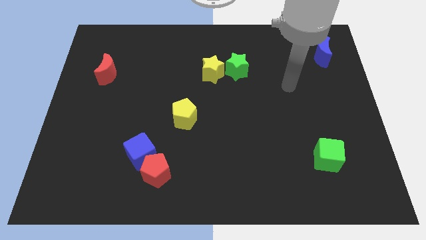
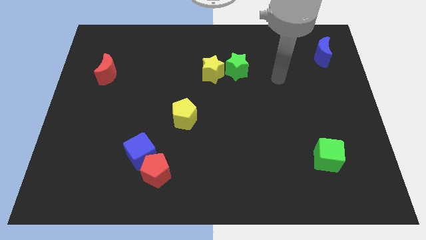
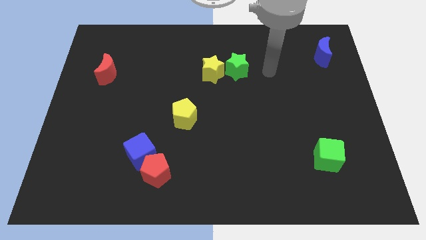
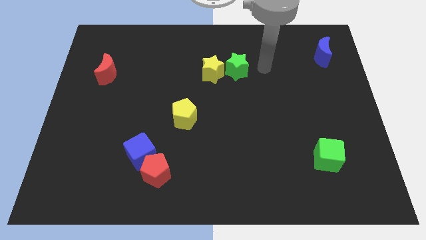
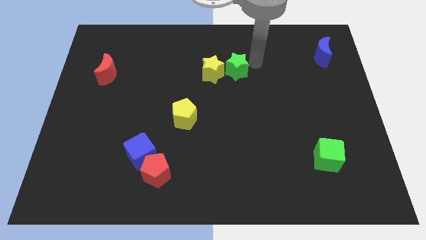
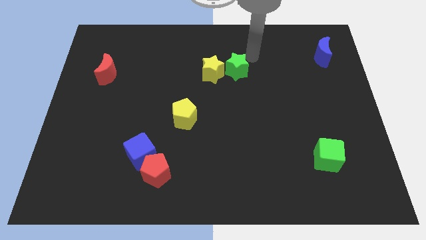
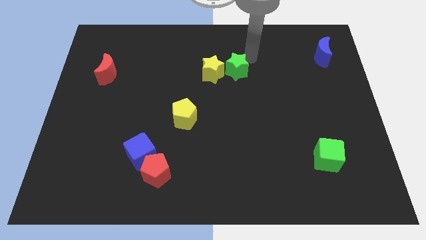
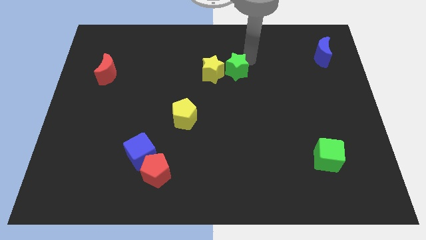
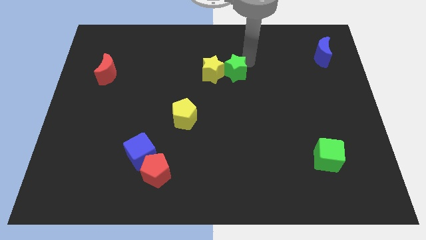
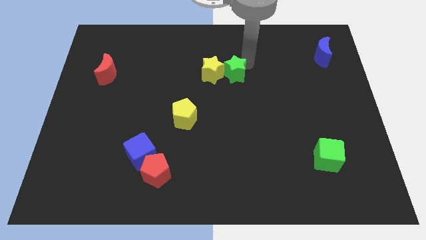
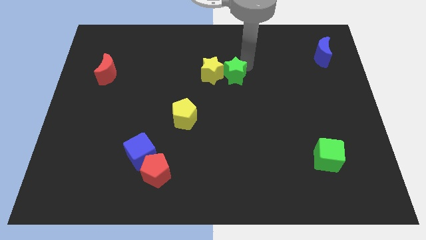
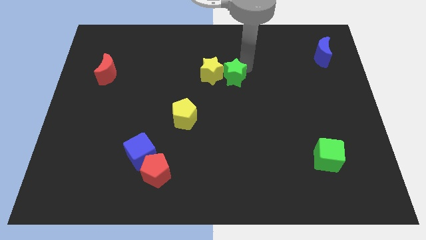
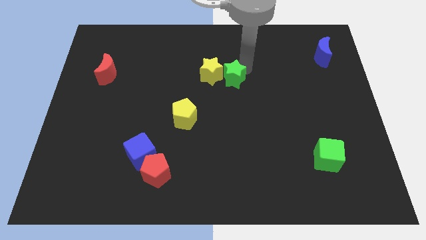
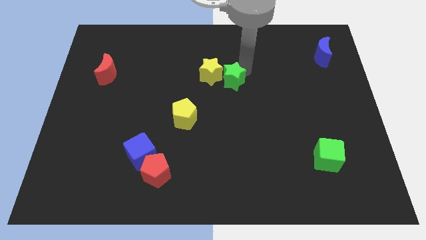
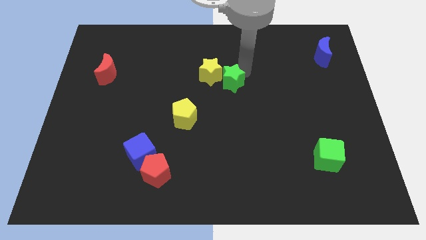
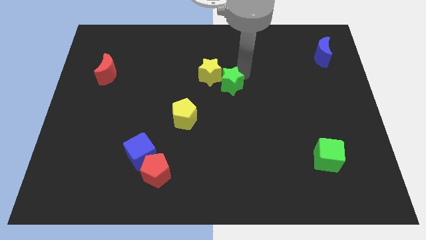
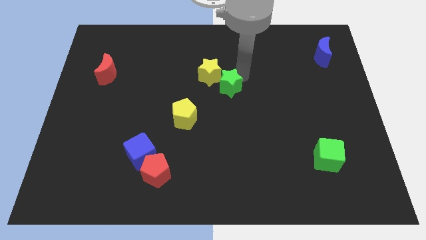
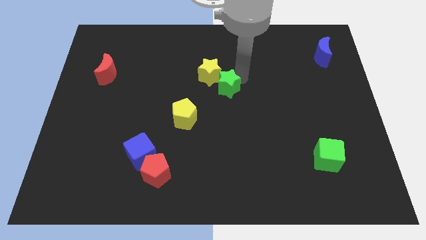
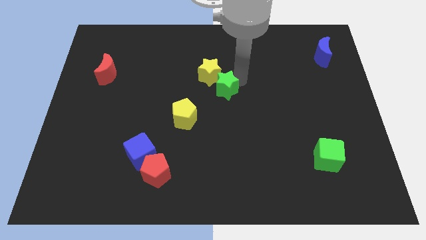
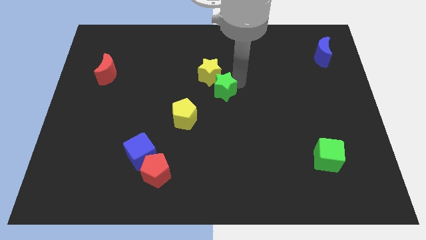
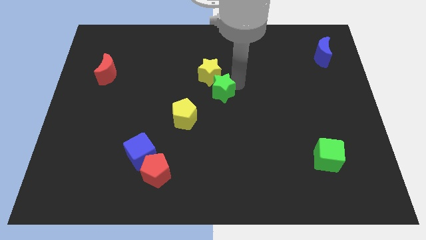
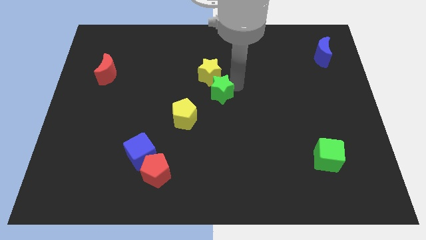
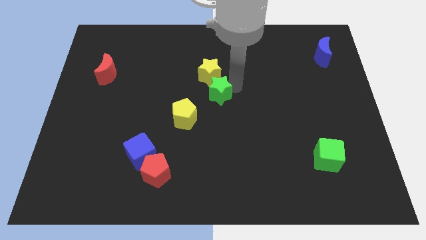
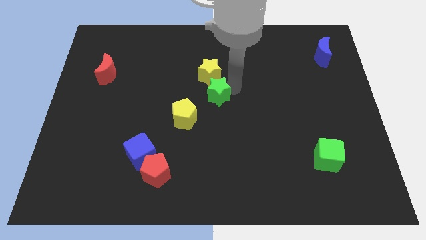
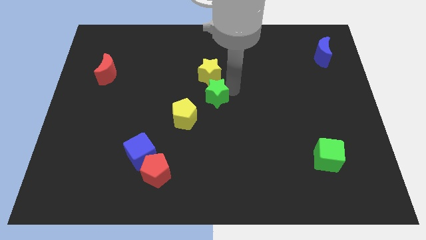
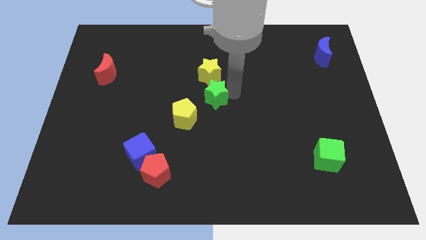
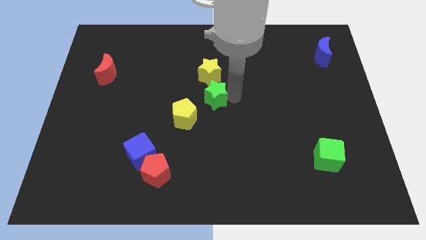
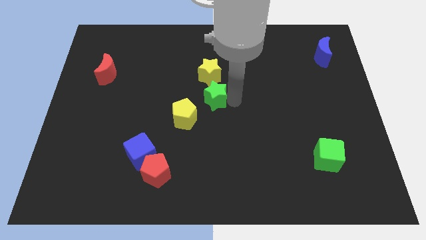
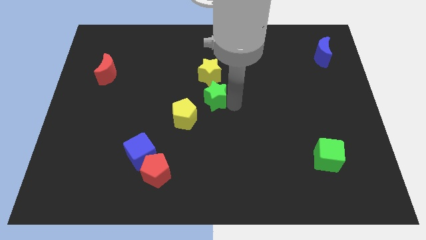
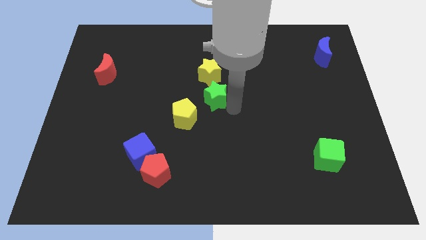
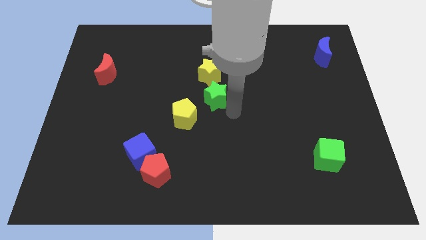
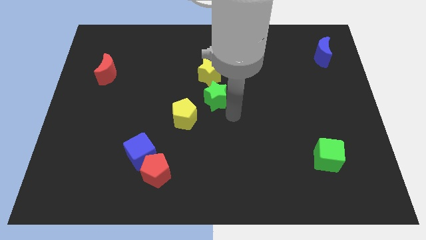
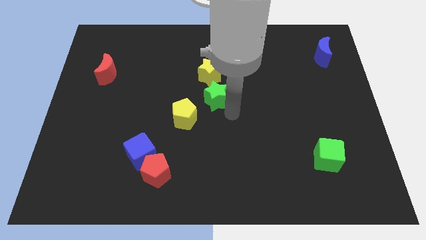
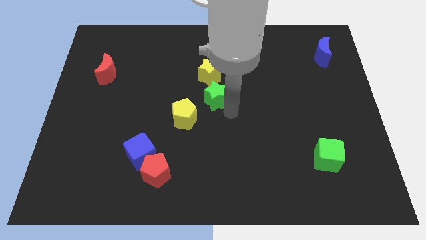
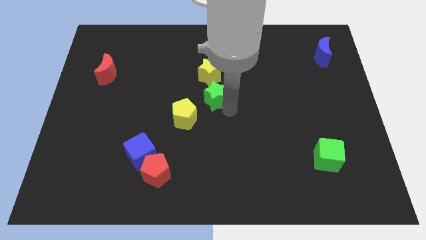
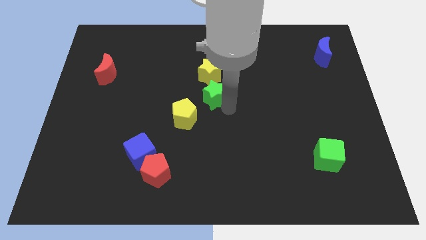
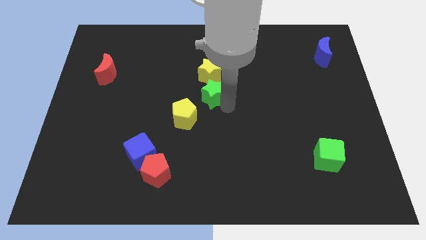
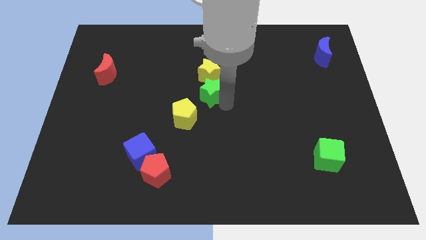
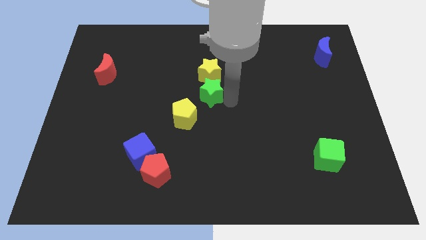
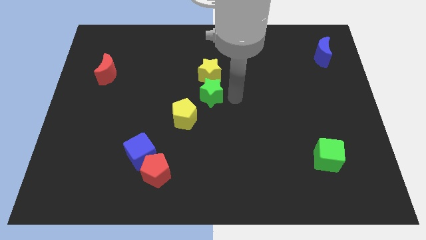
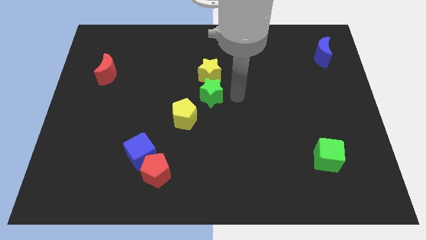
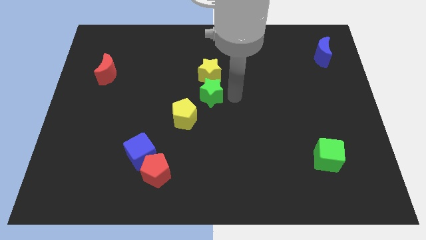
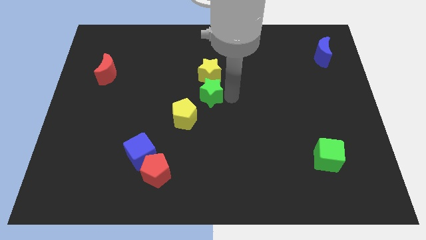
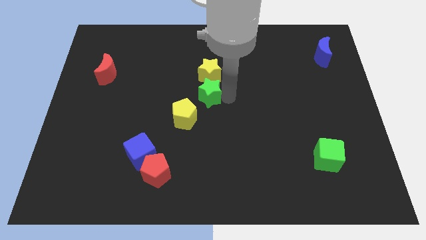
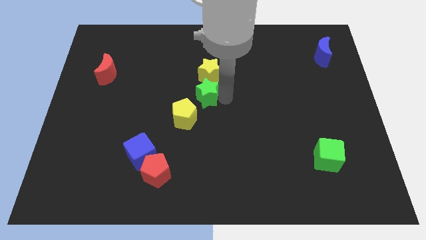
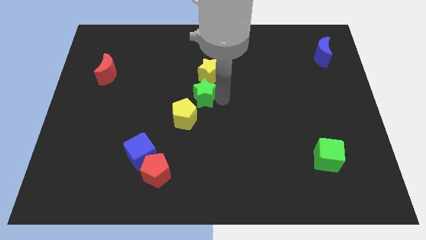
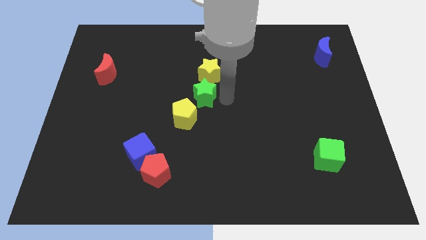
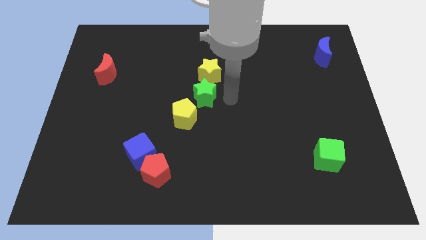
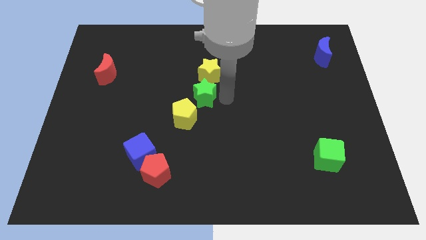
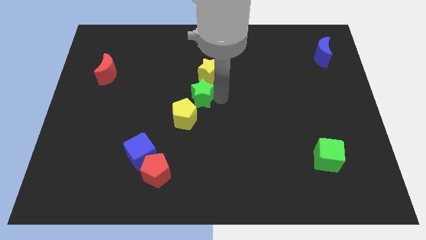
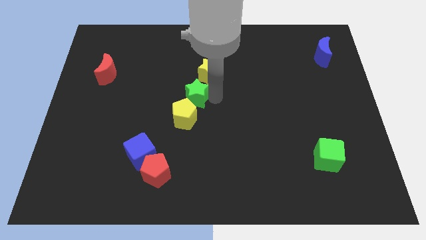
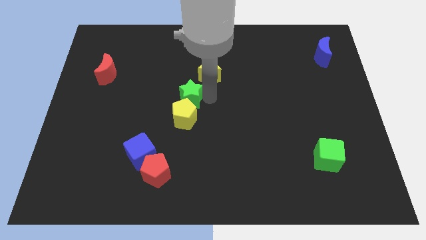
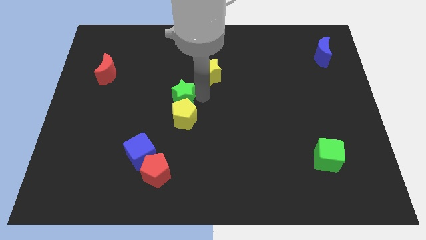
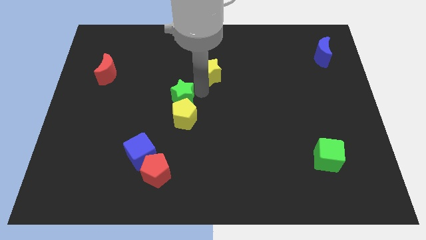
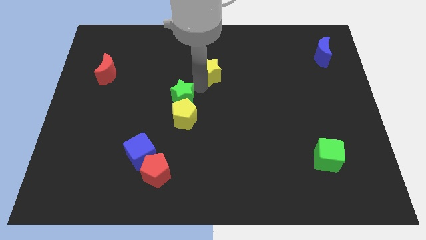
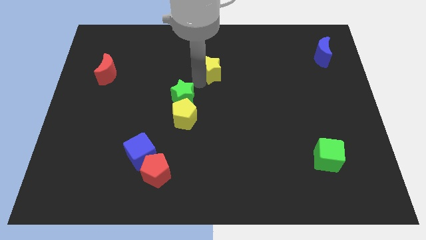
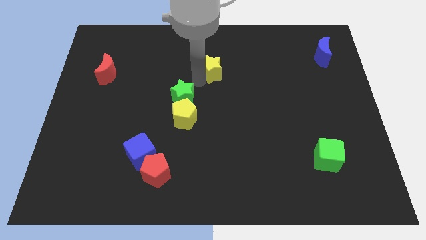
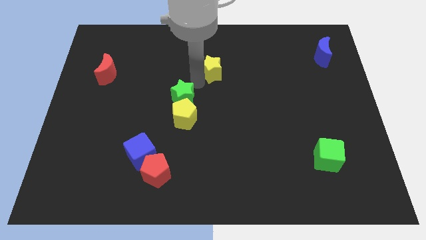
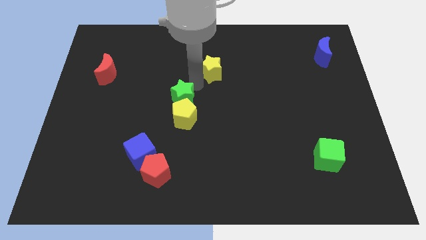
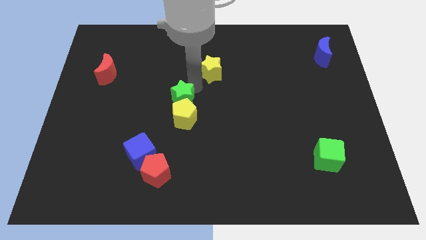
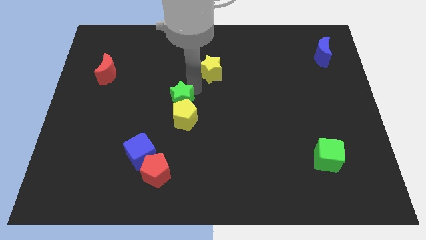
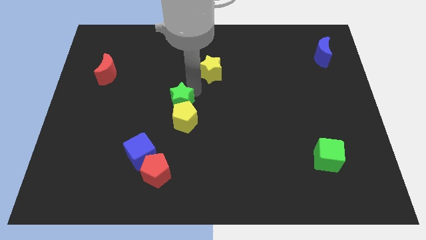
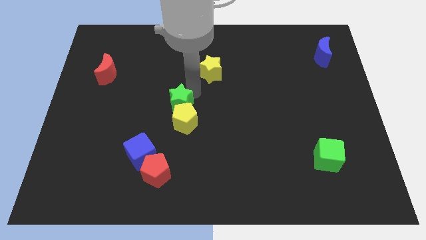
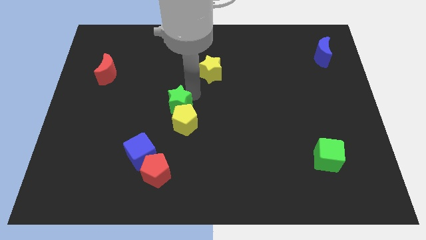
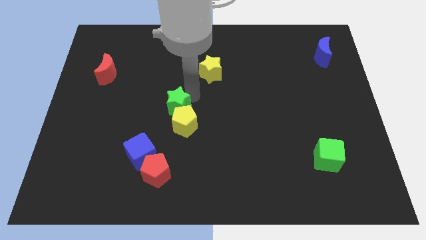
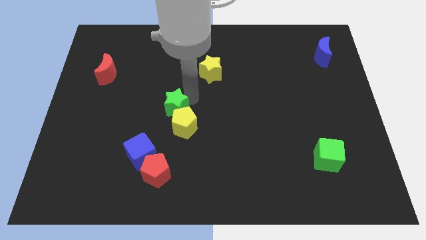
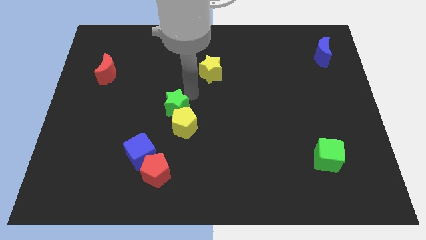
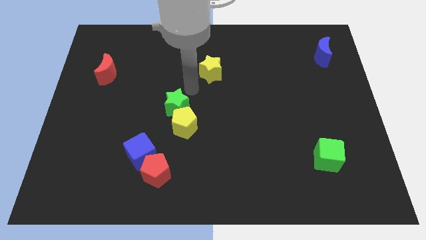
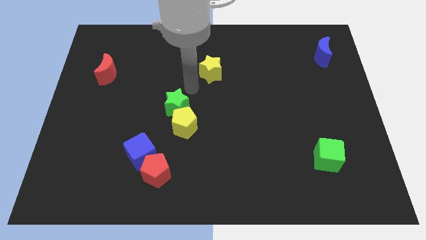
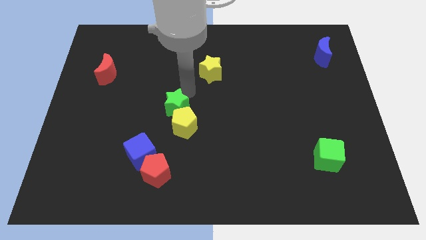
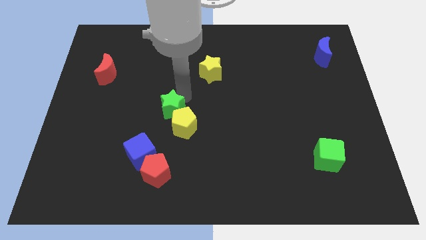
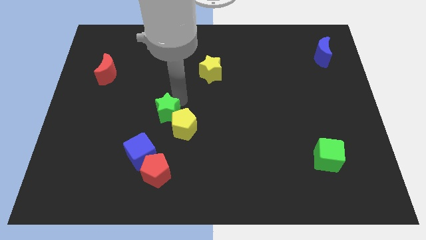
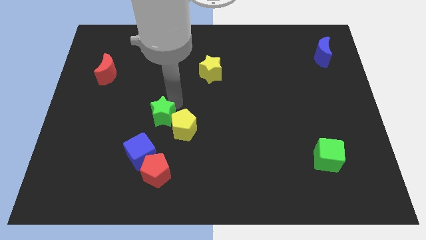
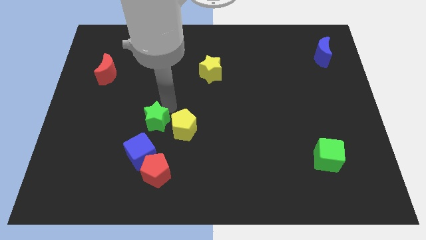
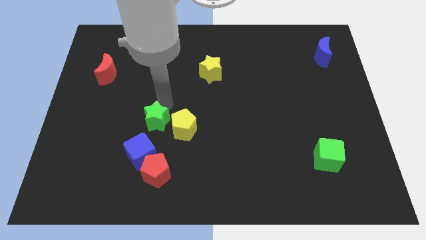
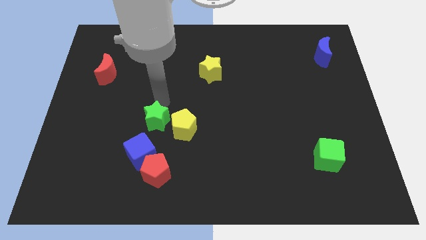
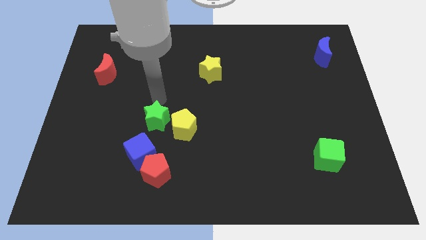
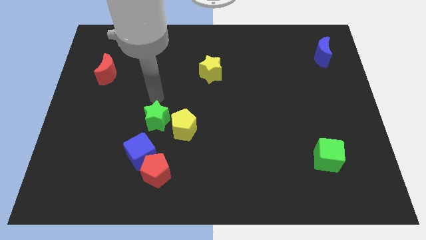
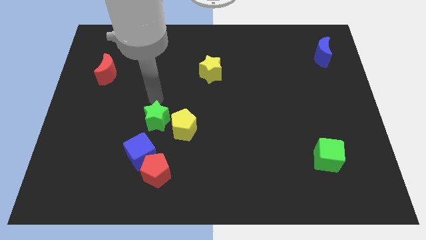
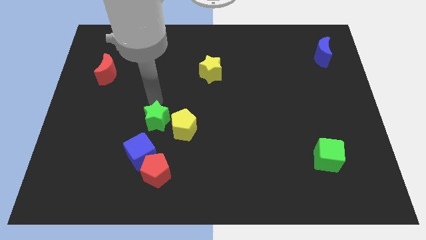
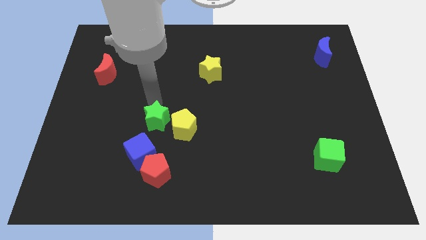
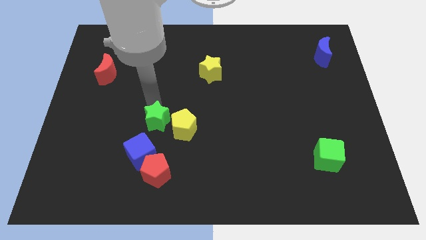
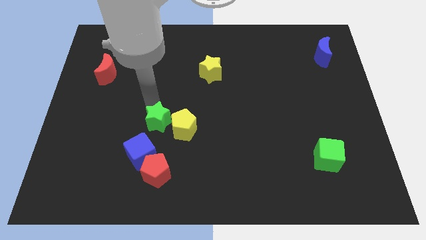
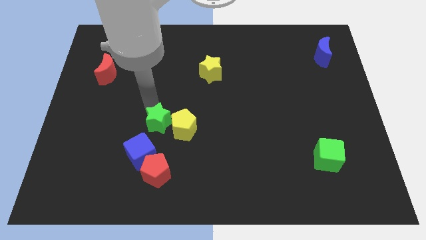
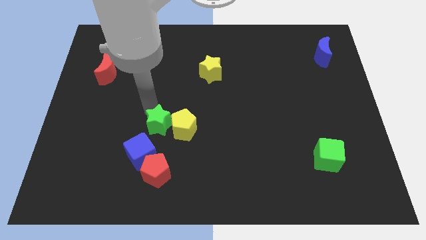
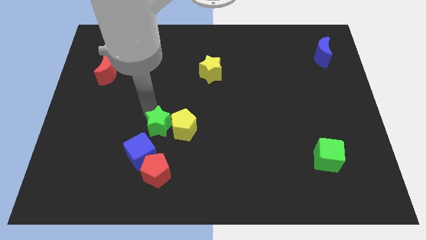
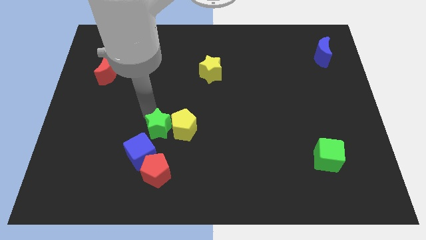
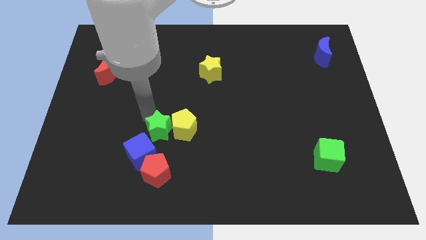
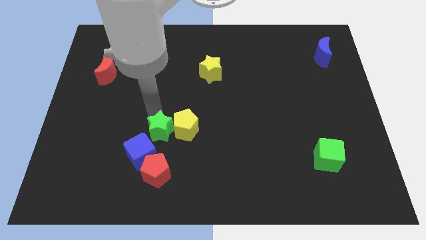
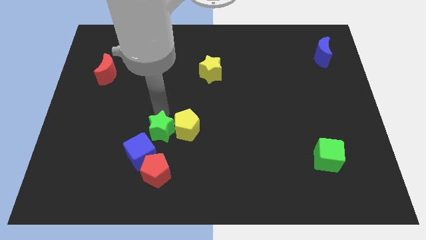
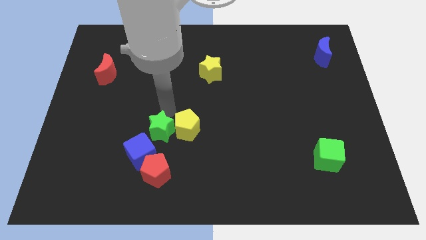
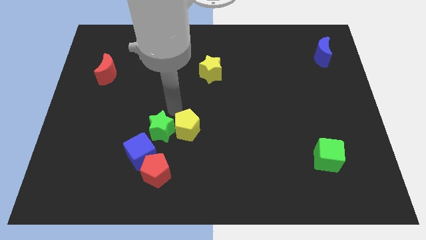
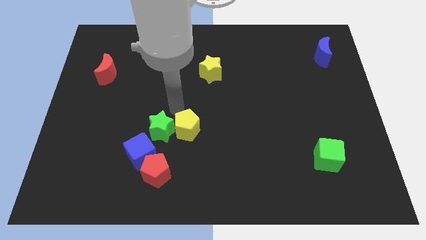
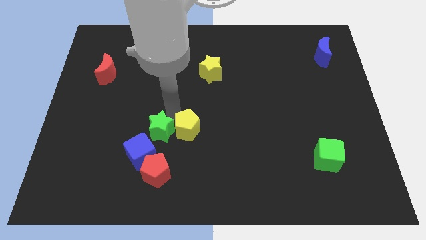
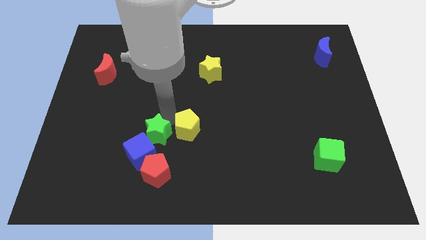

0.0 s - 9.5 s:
slide the green star towards the blue cube
